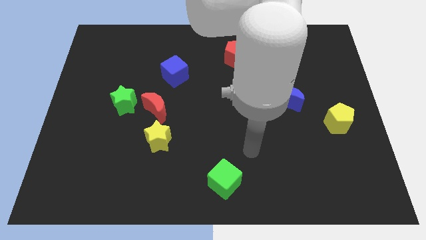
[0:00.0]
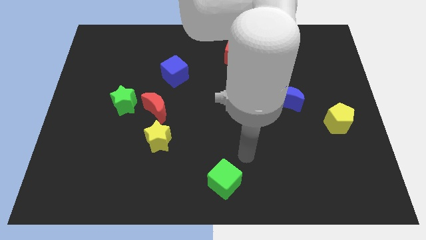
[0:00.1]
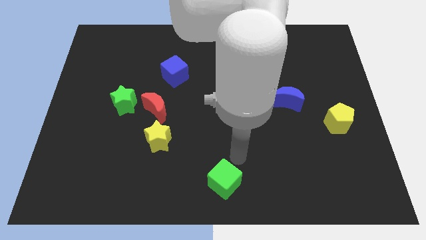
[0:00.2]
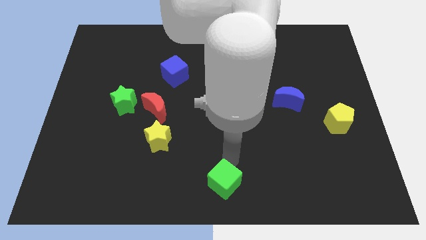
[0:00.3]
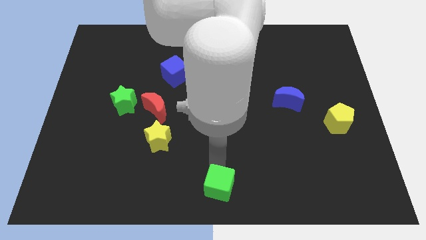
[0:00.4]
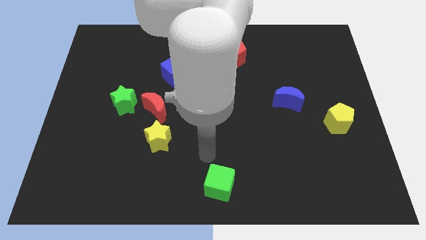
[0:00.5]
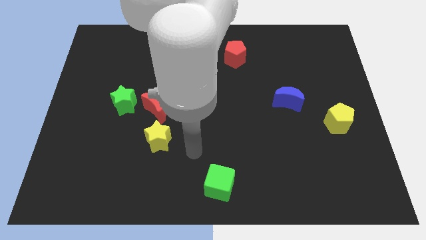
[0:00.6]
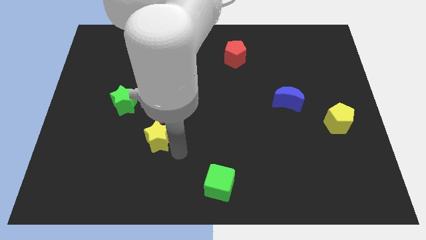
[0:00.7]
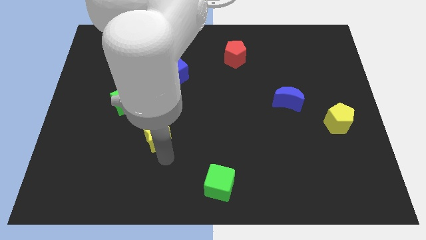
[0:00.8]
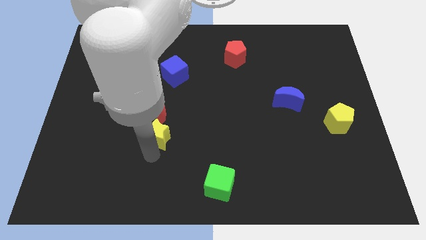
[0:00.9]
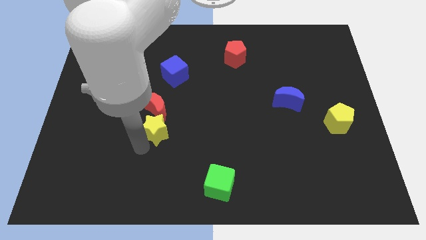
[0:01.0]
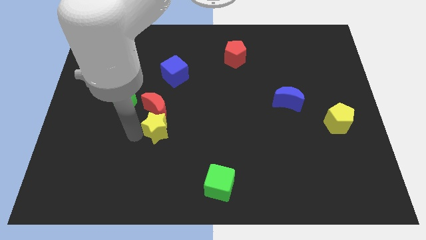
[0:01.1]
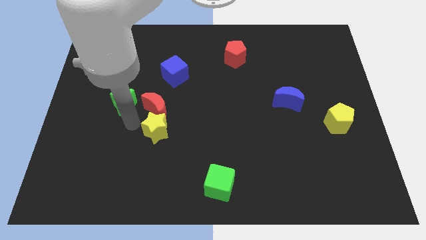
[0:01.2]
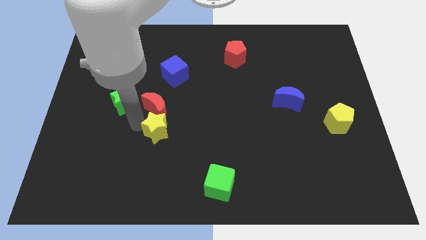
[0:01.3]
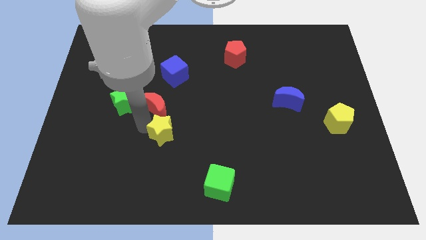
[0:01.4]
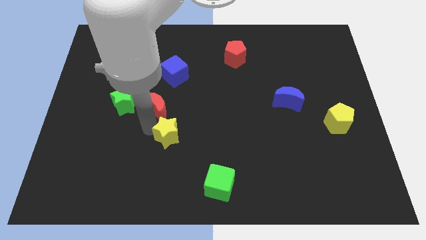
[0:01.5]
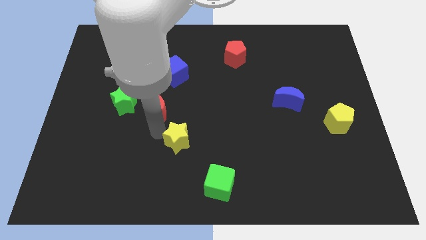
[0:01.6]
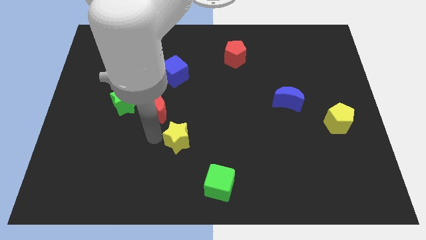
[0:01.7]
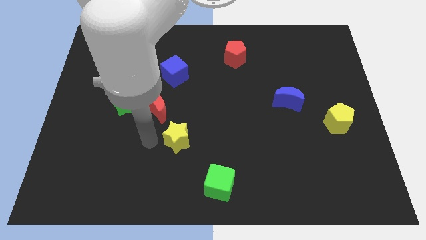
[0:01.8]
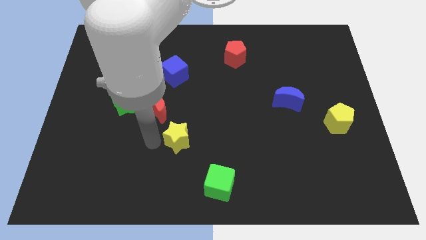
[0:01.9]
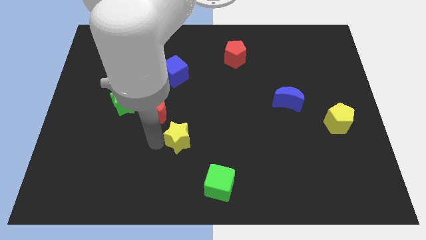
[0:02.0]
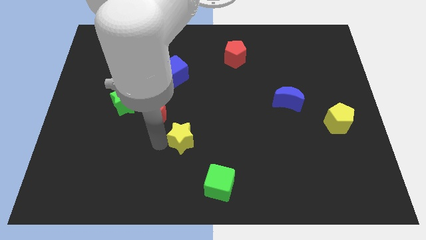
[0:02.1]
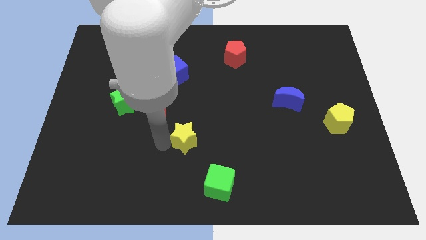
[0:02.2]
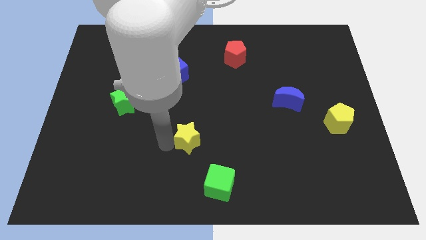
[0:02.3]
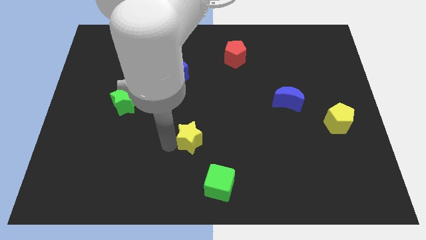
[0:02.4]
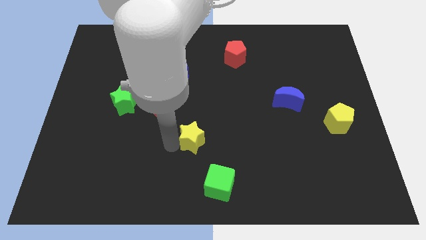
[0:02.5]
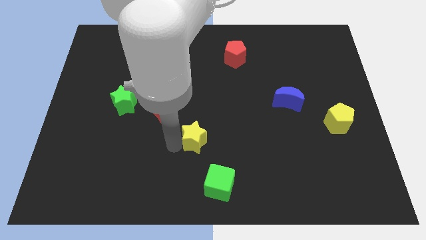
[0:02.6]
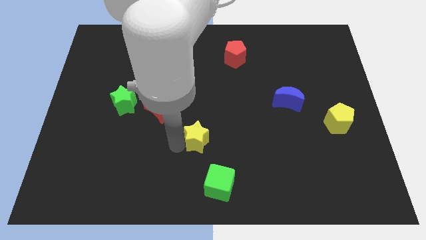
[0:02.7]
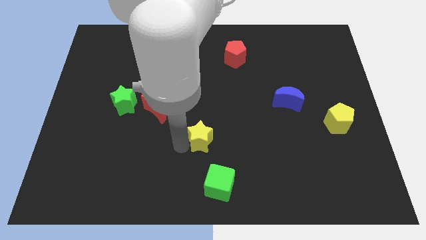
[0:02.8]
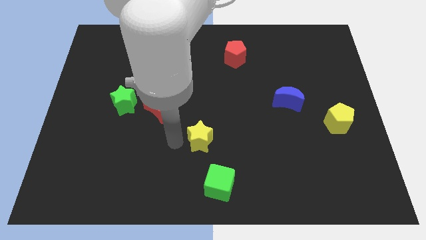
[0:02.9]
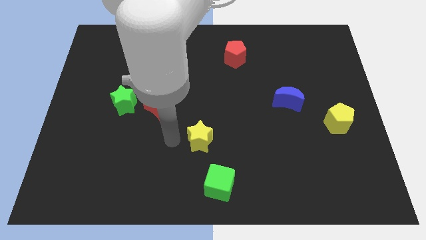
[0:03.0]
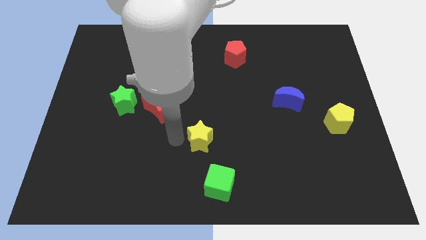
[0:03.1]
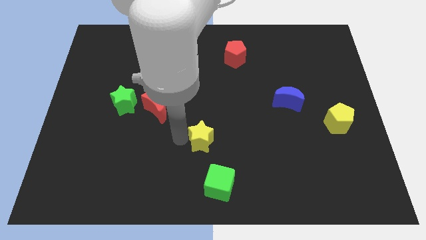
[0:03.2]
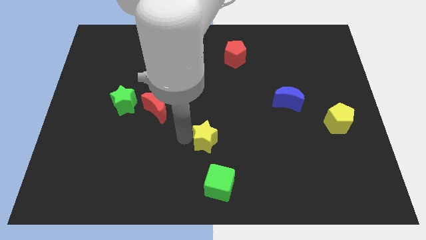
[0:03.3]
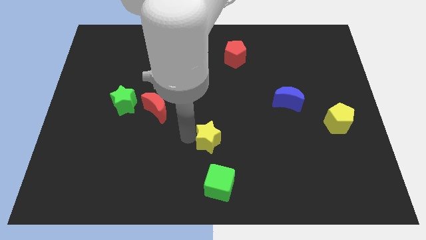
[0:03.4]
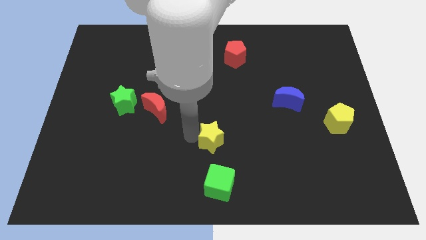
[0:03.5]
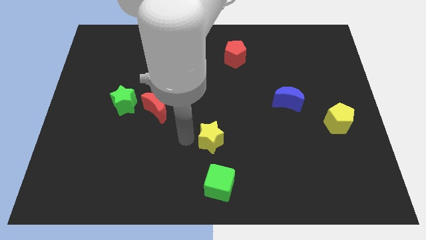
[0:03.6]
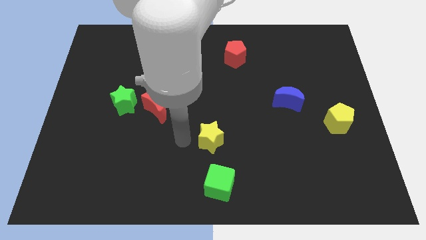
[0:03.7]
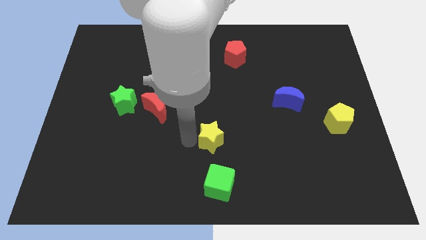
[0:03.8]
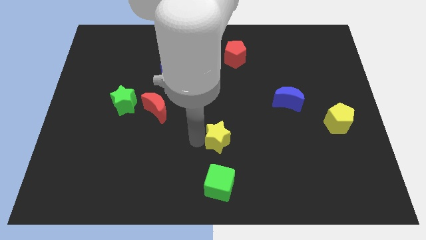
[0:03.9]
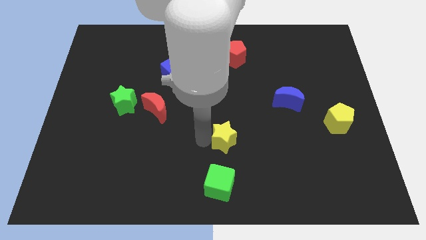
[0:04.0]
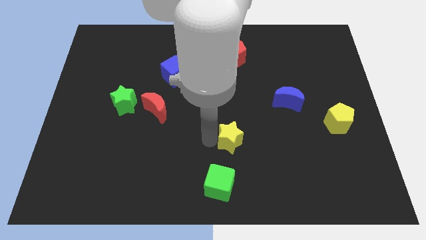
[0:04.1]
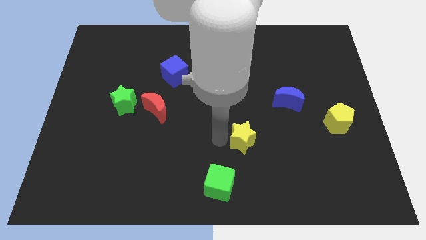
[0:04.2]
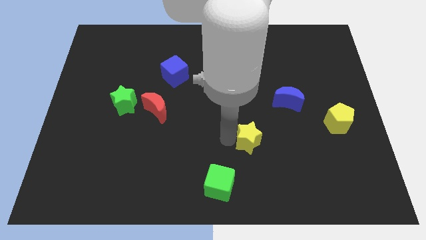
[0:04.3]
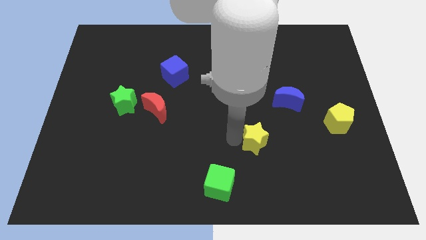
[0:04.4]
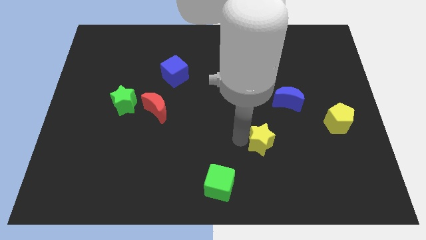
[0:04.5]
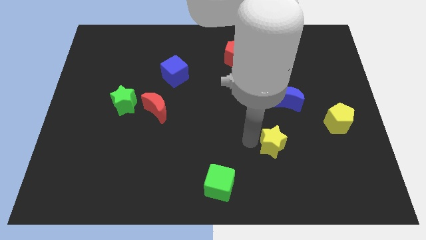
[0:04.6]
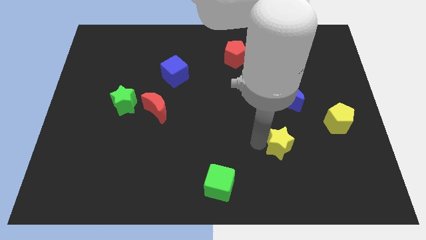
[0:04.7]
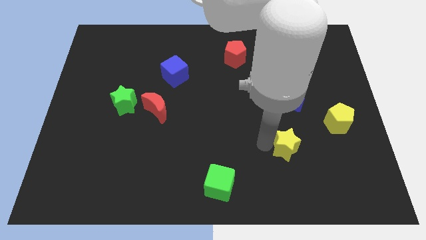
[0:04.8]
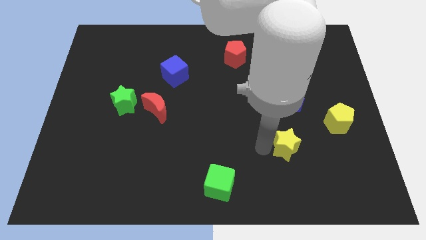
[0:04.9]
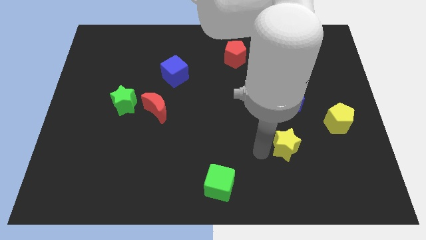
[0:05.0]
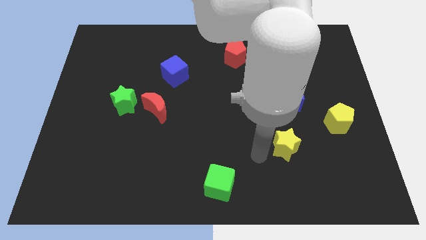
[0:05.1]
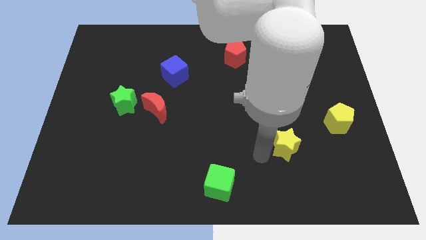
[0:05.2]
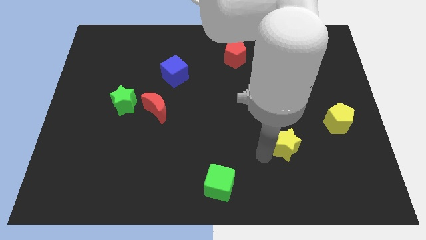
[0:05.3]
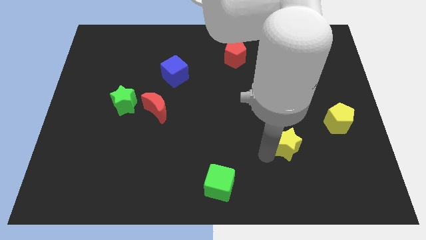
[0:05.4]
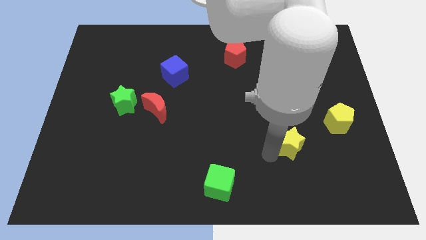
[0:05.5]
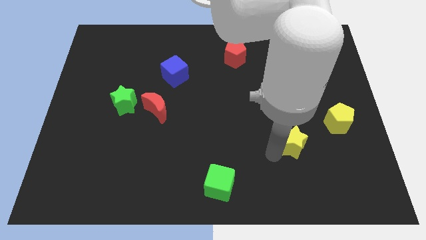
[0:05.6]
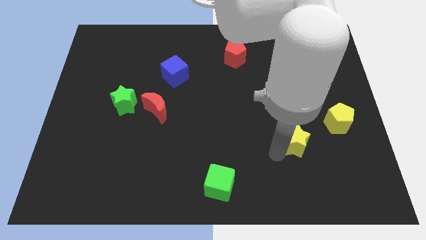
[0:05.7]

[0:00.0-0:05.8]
move the yellow star diagonally down and to the left of the yellow pentagon
